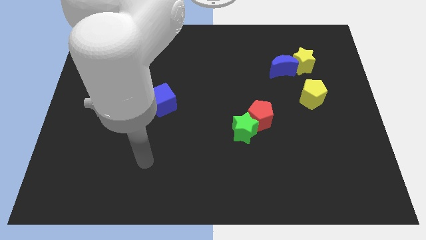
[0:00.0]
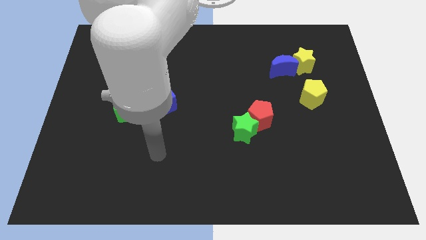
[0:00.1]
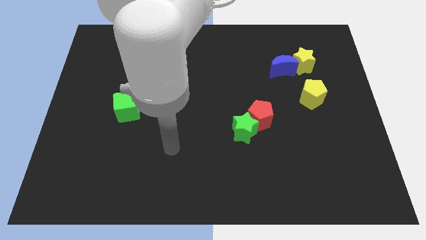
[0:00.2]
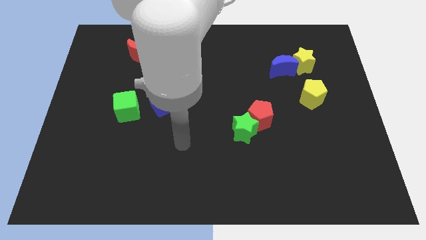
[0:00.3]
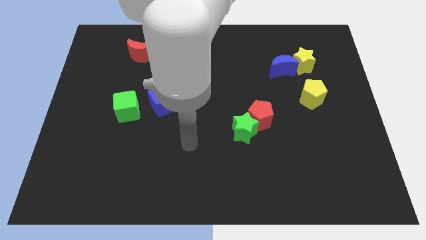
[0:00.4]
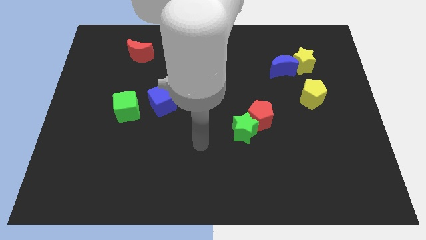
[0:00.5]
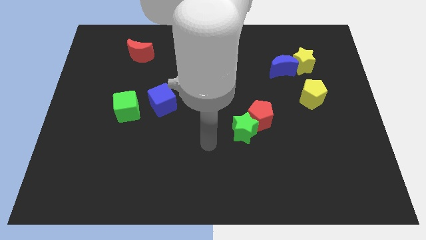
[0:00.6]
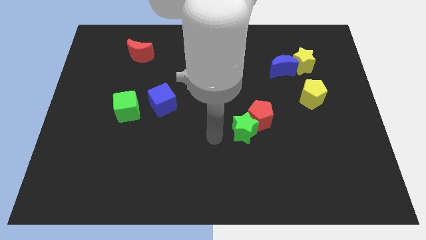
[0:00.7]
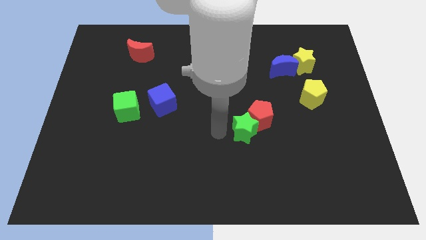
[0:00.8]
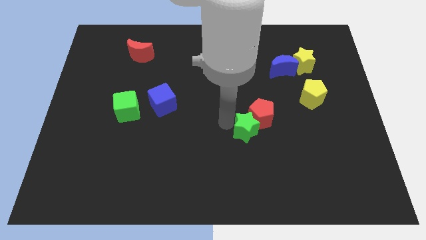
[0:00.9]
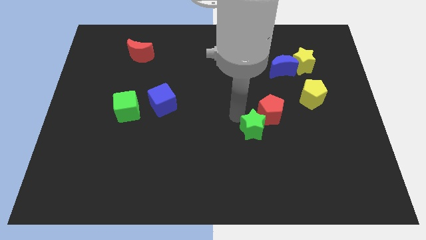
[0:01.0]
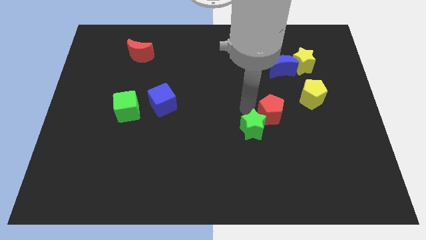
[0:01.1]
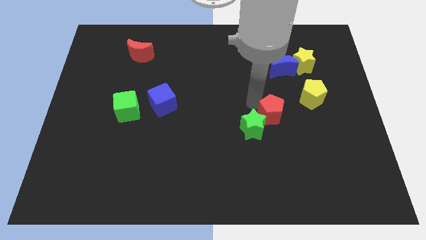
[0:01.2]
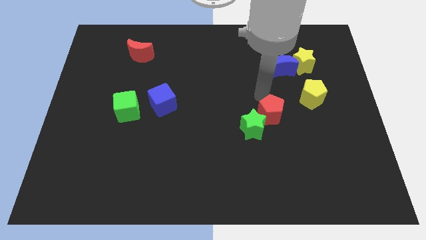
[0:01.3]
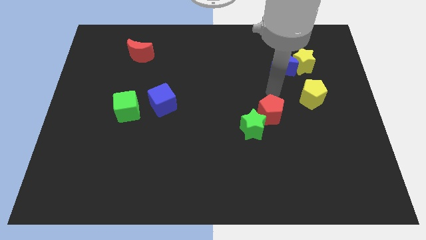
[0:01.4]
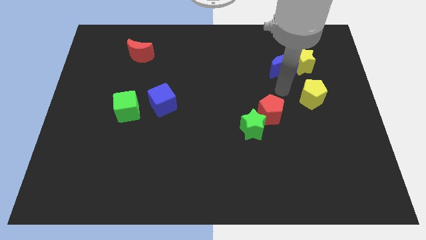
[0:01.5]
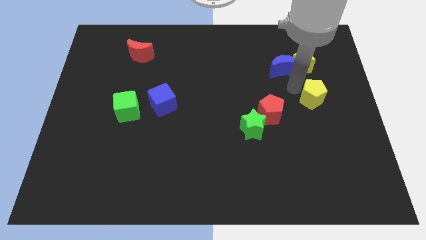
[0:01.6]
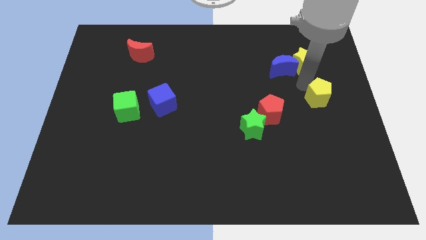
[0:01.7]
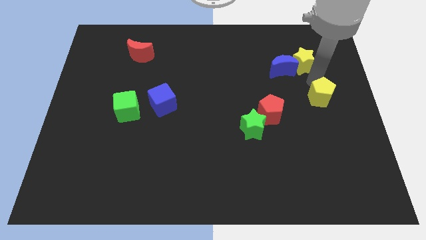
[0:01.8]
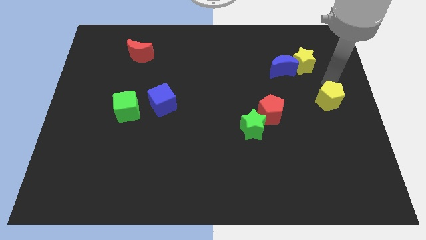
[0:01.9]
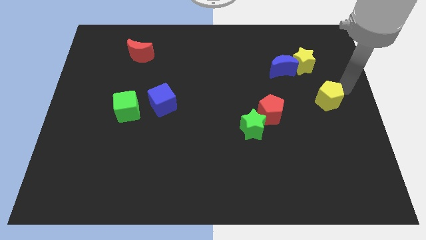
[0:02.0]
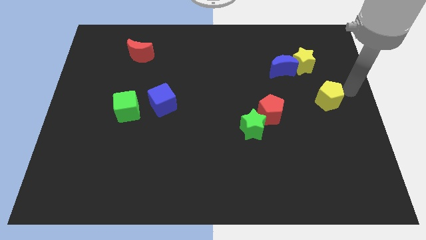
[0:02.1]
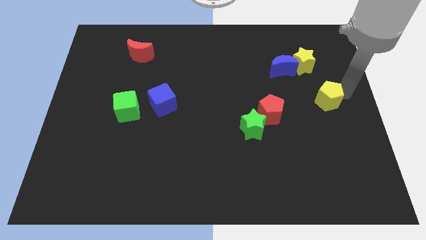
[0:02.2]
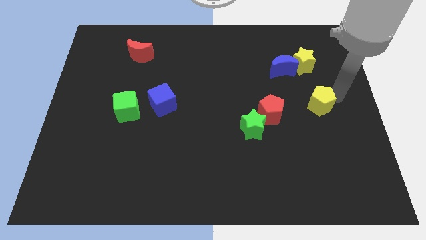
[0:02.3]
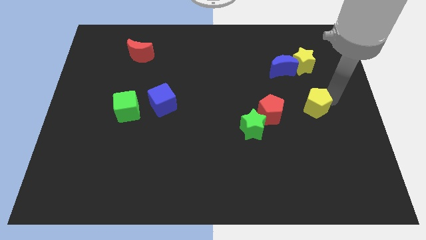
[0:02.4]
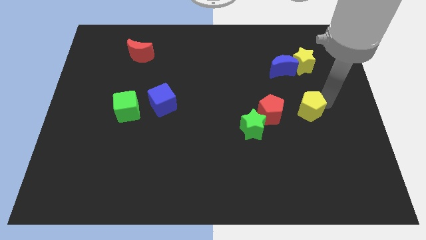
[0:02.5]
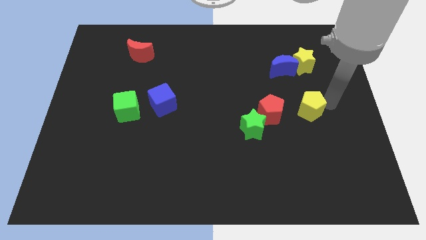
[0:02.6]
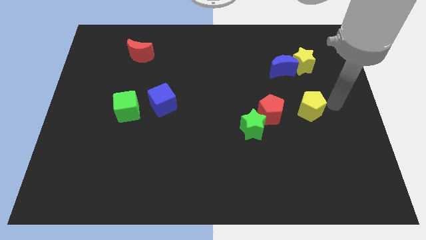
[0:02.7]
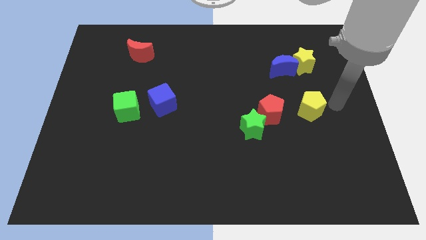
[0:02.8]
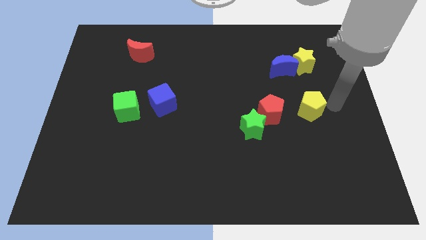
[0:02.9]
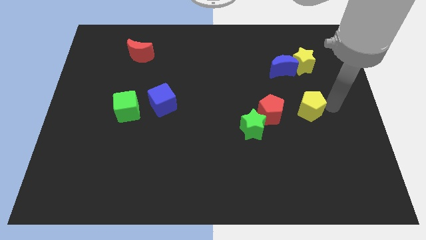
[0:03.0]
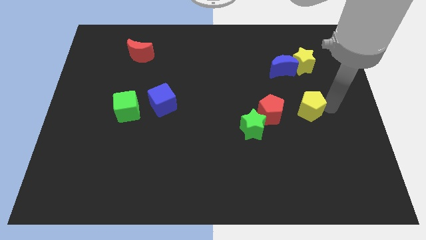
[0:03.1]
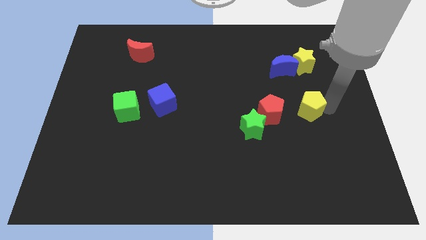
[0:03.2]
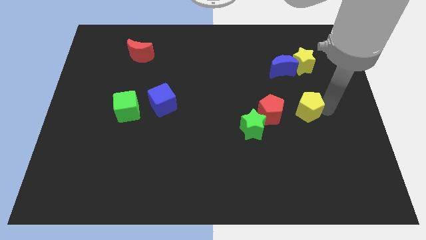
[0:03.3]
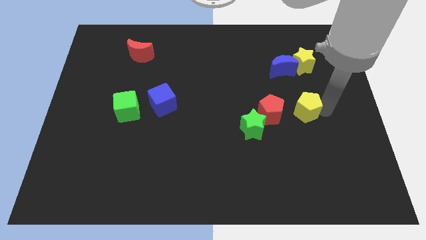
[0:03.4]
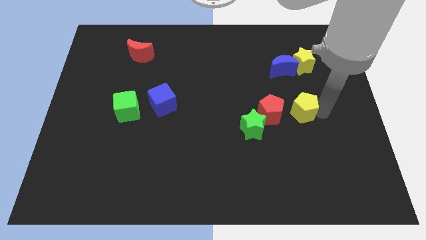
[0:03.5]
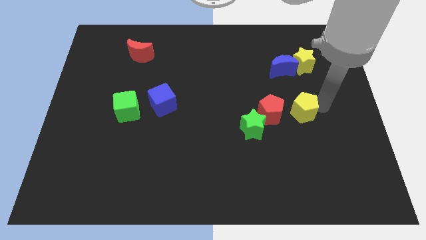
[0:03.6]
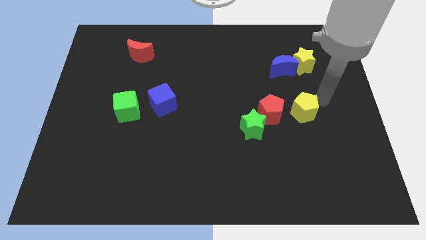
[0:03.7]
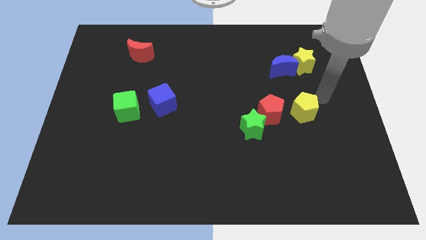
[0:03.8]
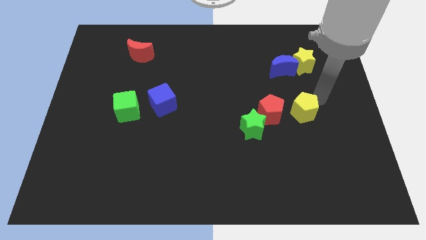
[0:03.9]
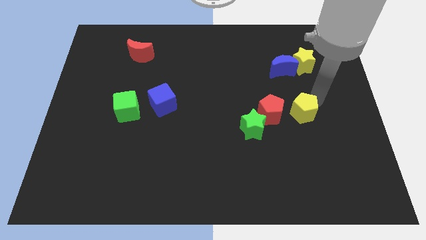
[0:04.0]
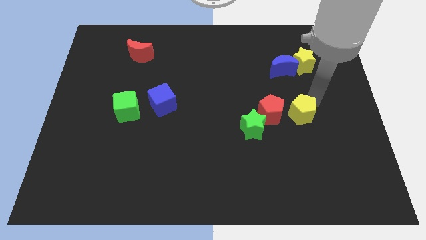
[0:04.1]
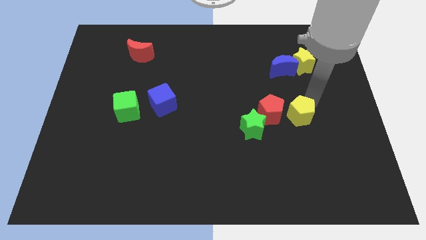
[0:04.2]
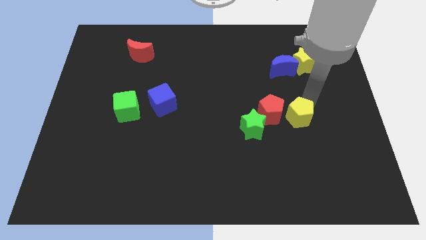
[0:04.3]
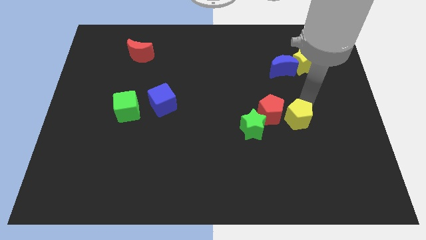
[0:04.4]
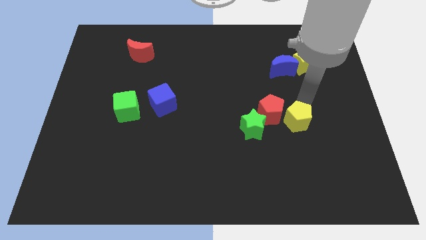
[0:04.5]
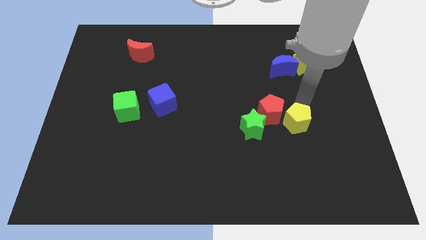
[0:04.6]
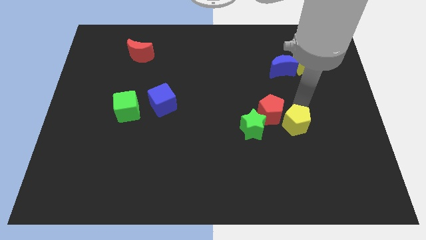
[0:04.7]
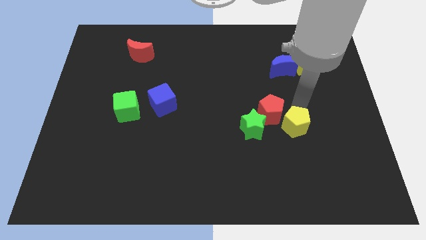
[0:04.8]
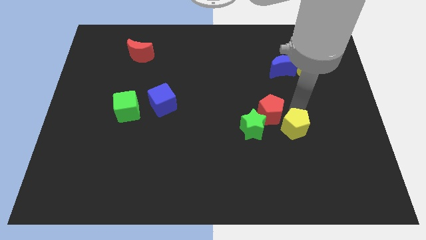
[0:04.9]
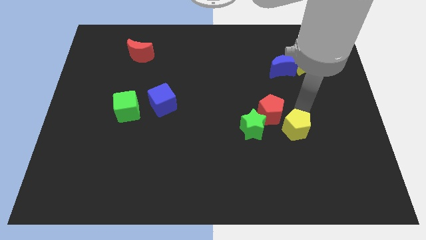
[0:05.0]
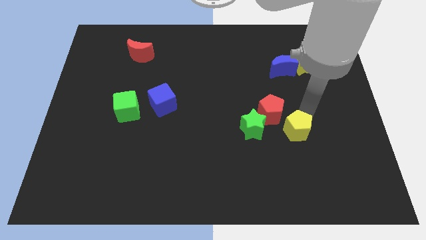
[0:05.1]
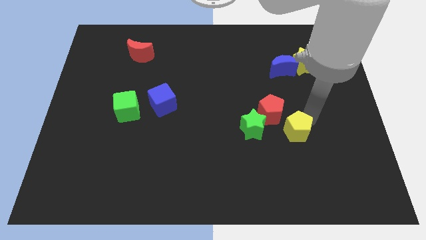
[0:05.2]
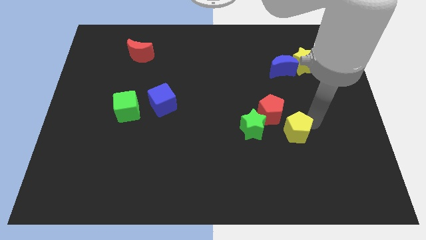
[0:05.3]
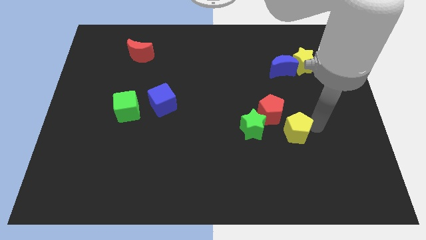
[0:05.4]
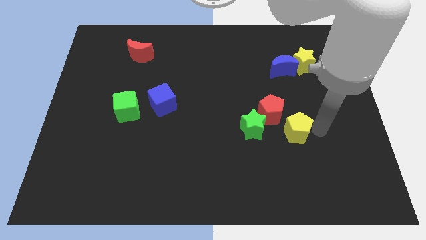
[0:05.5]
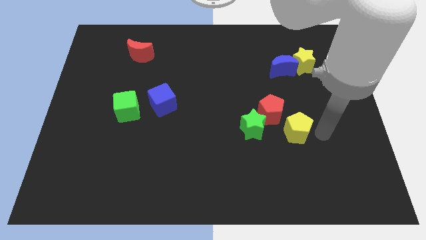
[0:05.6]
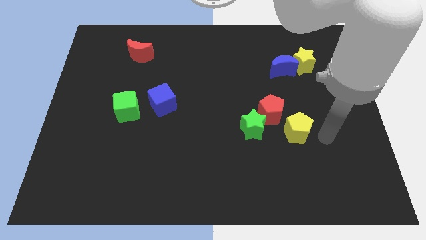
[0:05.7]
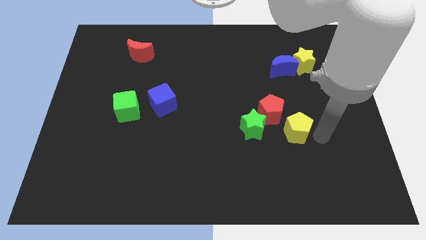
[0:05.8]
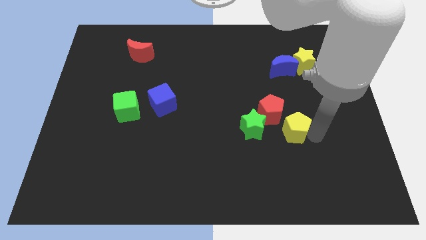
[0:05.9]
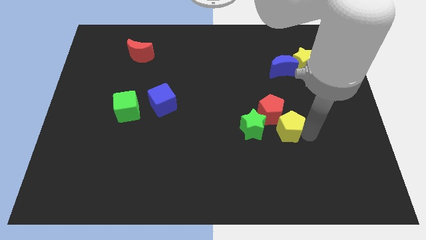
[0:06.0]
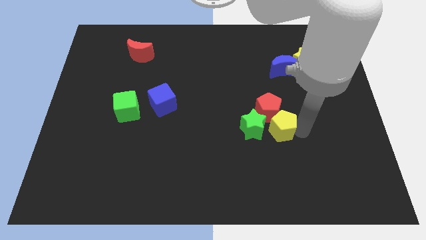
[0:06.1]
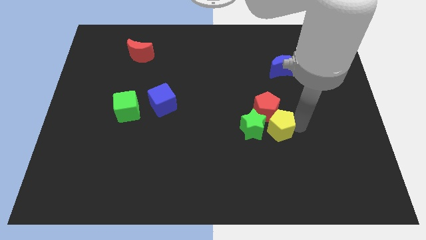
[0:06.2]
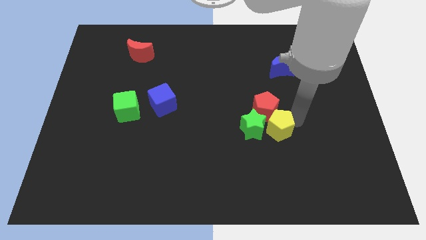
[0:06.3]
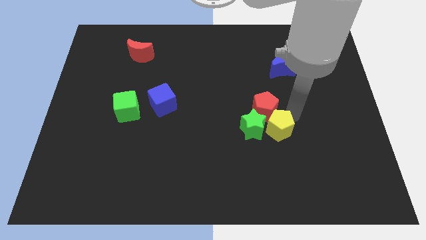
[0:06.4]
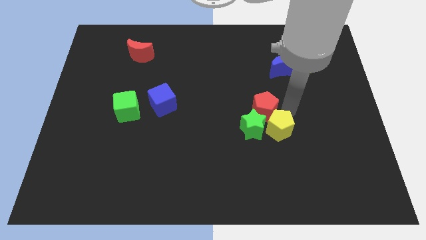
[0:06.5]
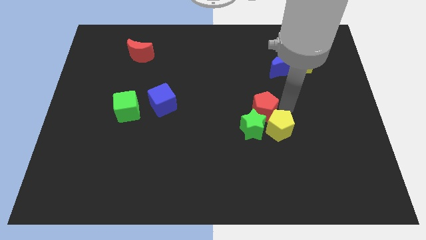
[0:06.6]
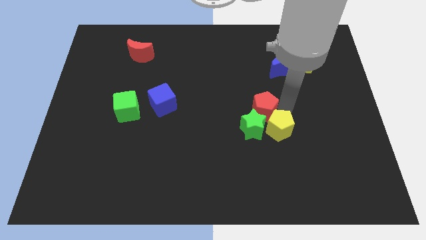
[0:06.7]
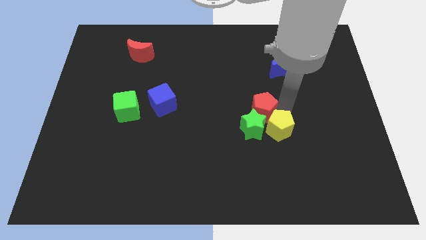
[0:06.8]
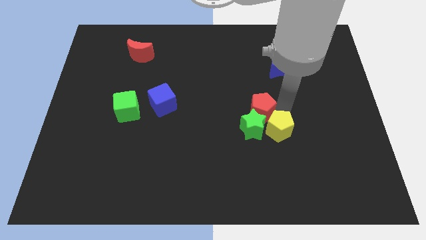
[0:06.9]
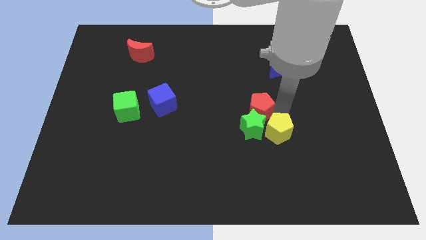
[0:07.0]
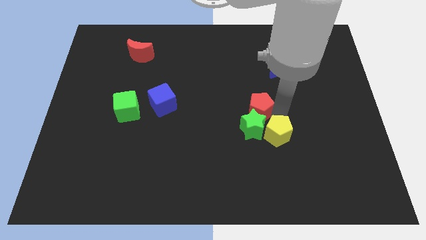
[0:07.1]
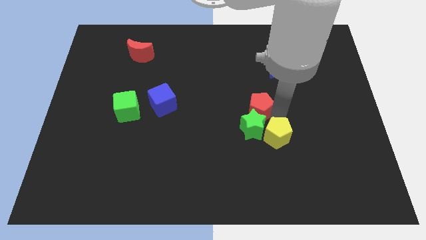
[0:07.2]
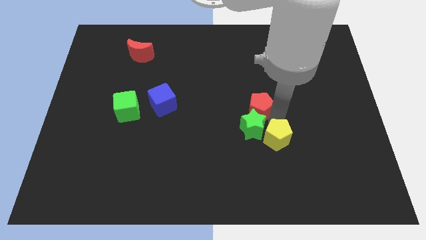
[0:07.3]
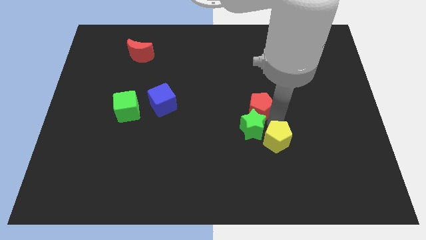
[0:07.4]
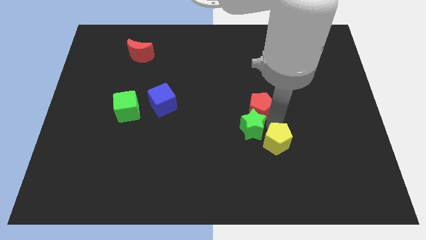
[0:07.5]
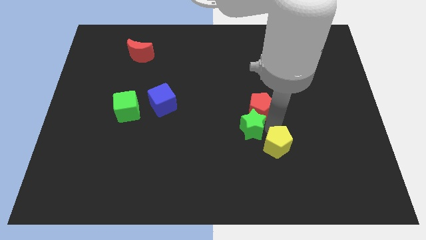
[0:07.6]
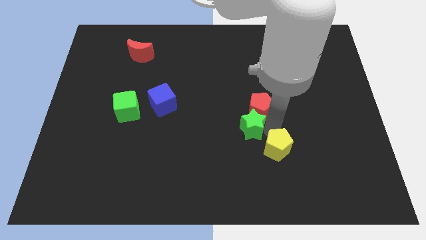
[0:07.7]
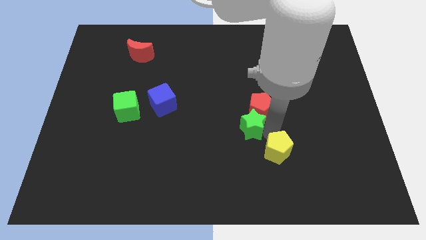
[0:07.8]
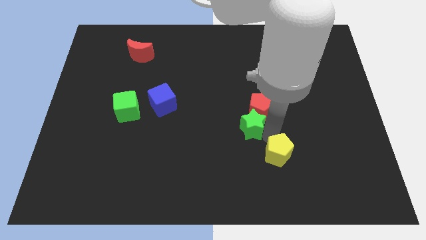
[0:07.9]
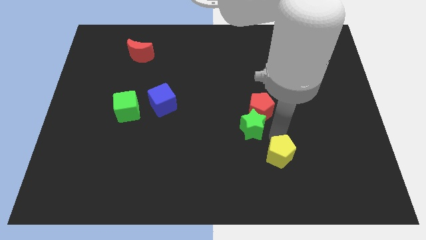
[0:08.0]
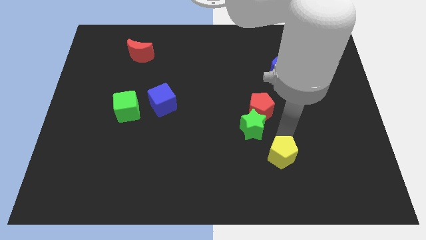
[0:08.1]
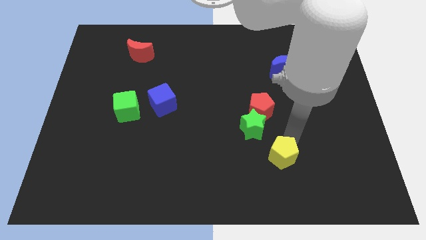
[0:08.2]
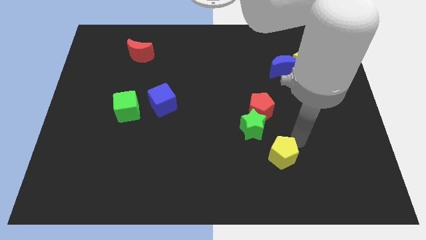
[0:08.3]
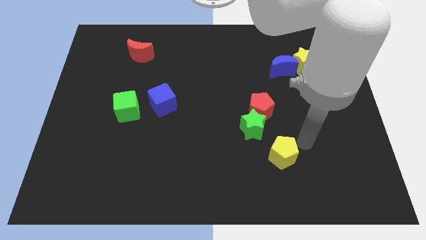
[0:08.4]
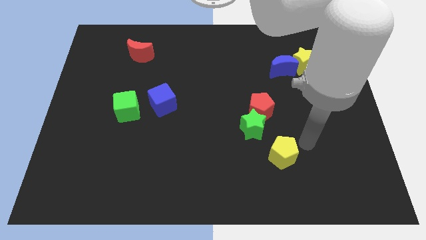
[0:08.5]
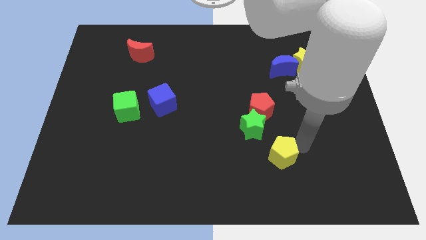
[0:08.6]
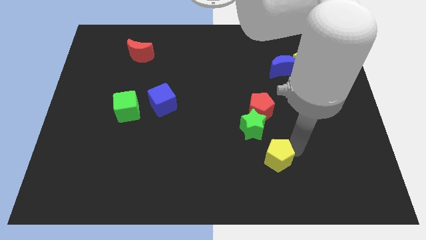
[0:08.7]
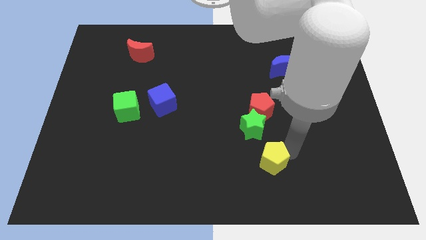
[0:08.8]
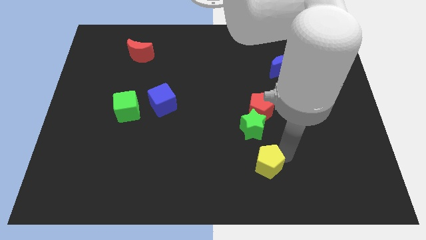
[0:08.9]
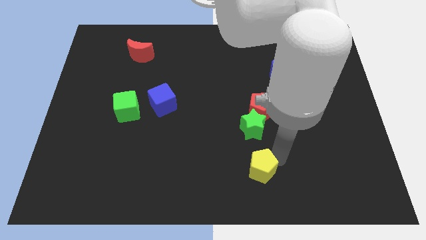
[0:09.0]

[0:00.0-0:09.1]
slide the yellow pentagon to the bottom side
